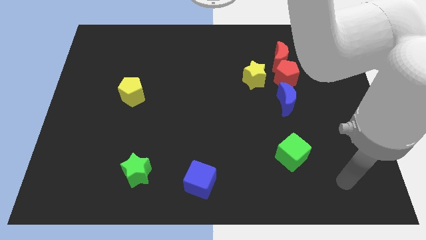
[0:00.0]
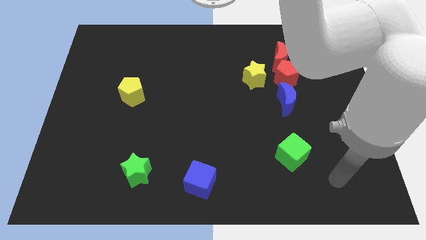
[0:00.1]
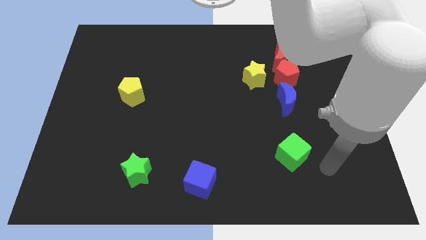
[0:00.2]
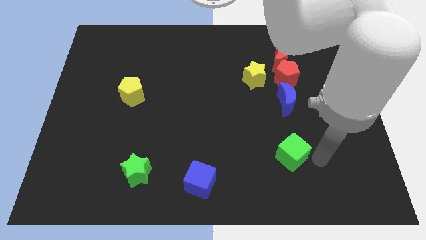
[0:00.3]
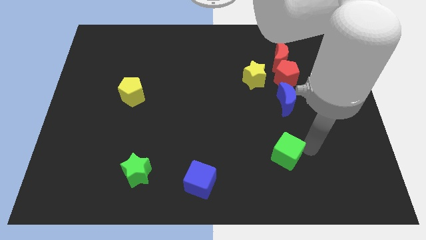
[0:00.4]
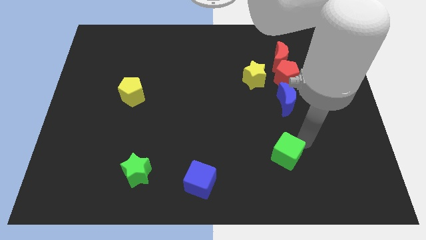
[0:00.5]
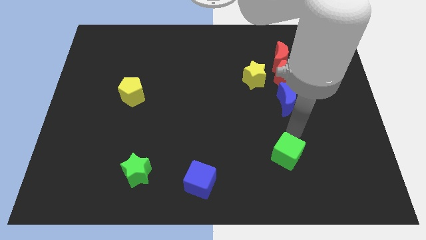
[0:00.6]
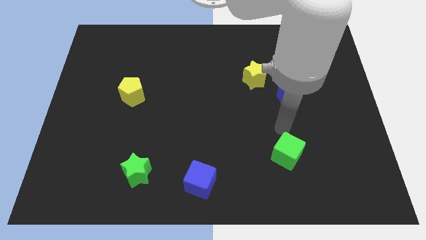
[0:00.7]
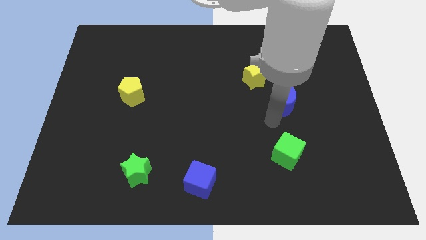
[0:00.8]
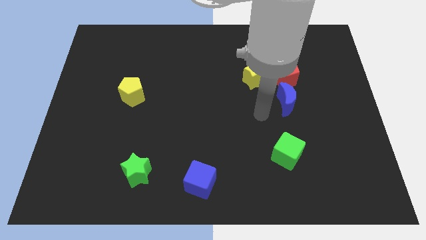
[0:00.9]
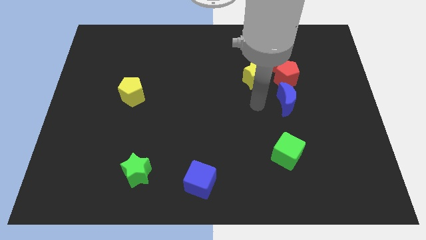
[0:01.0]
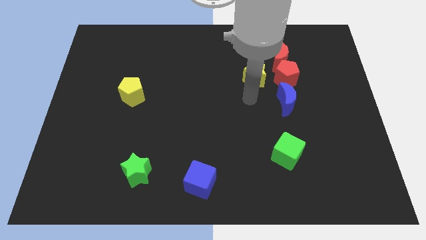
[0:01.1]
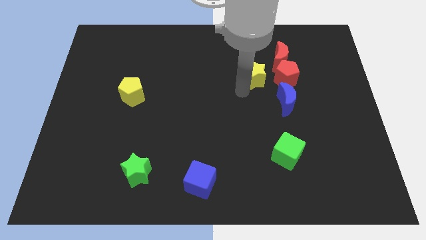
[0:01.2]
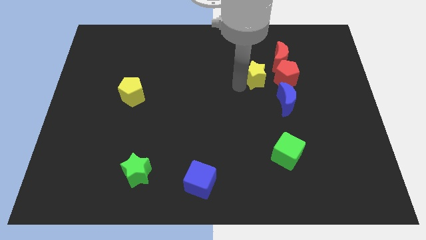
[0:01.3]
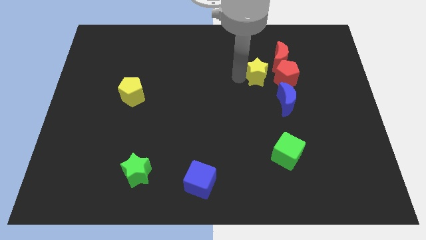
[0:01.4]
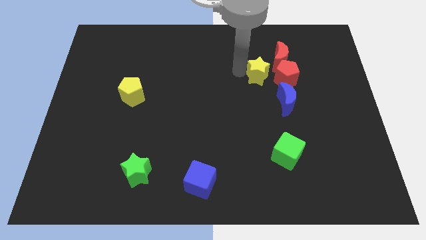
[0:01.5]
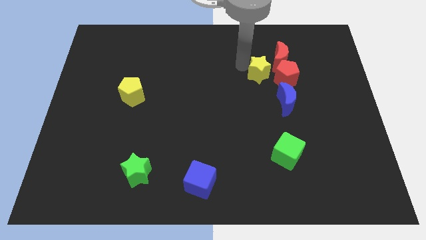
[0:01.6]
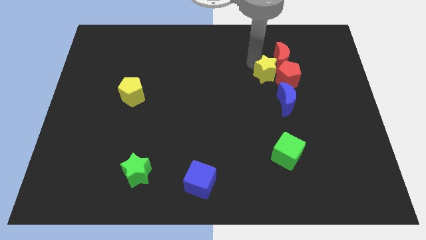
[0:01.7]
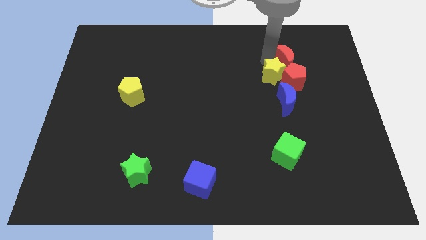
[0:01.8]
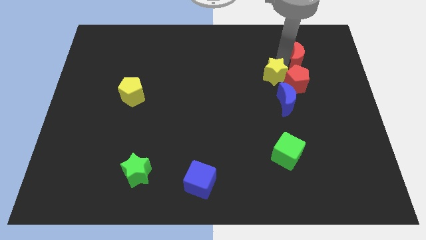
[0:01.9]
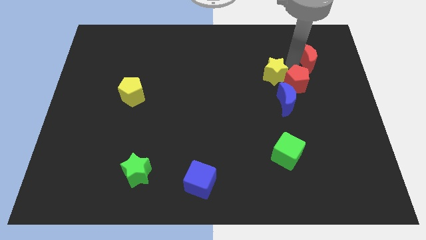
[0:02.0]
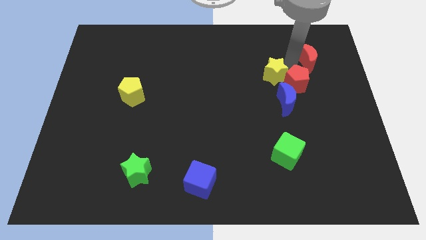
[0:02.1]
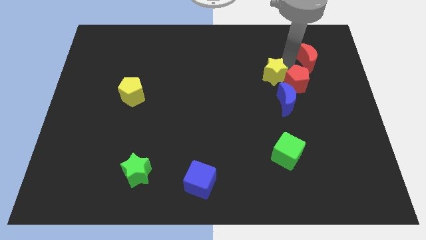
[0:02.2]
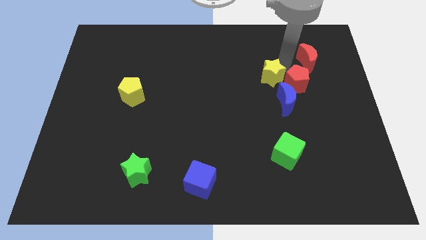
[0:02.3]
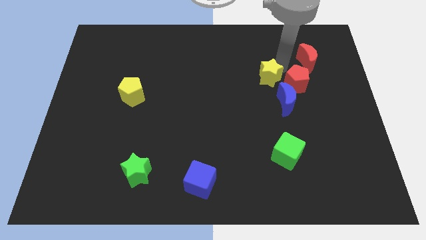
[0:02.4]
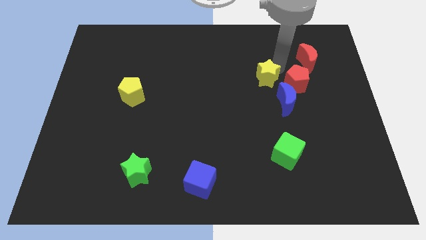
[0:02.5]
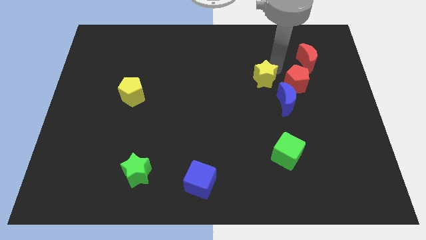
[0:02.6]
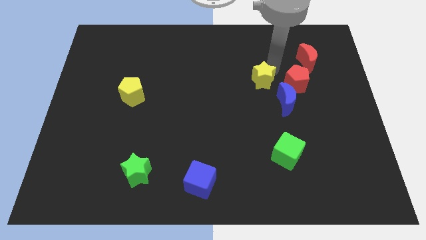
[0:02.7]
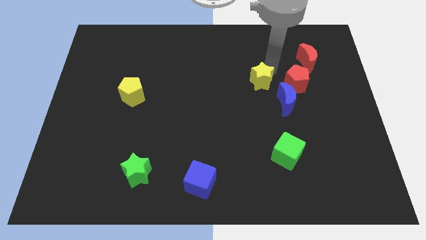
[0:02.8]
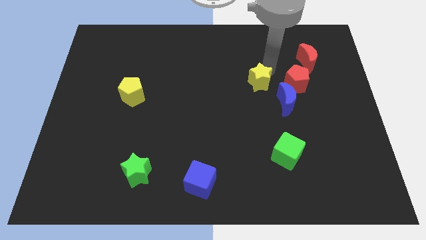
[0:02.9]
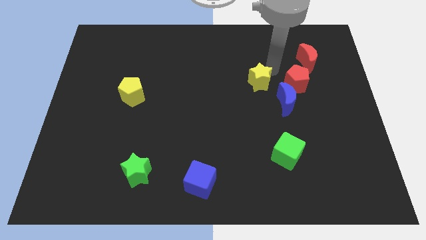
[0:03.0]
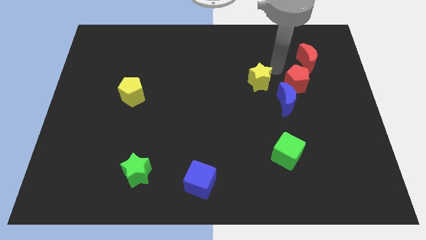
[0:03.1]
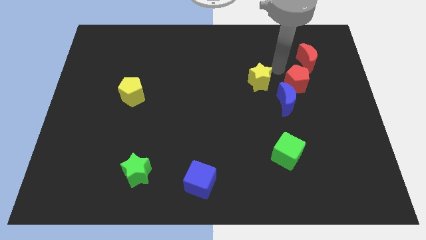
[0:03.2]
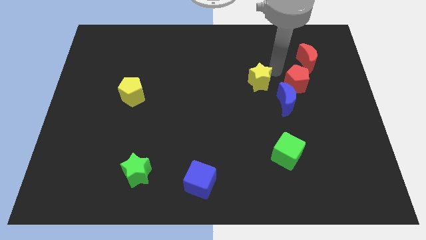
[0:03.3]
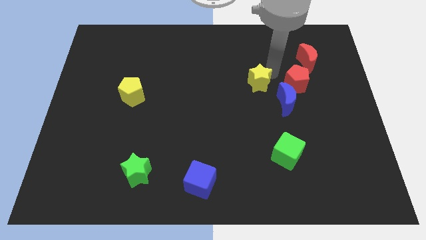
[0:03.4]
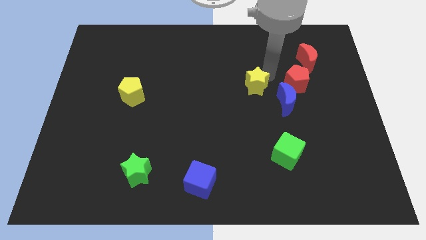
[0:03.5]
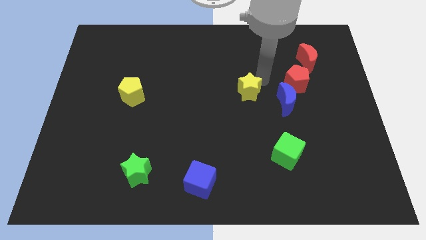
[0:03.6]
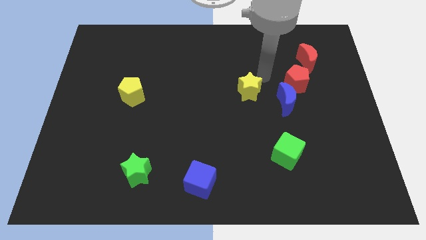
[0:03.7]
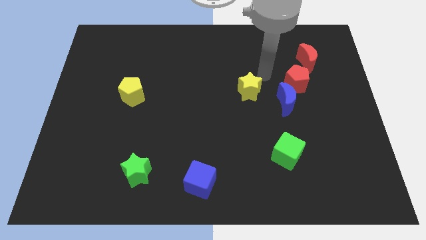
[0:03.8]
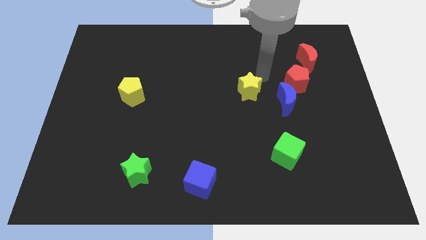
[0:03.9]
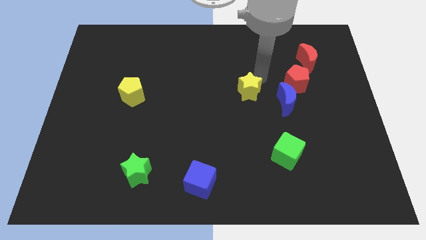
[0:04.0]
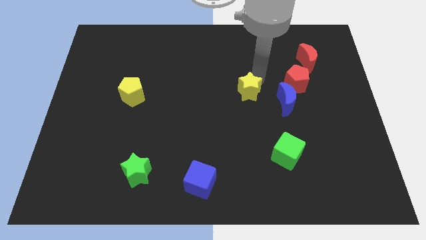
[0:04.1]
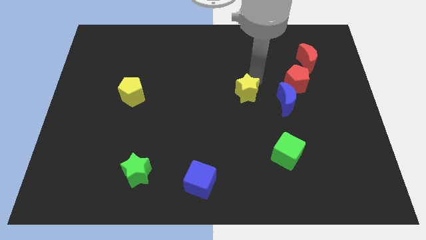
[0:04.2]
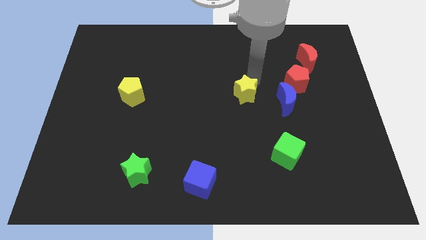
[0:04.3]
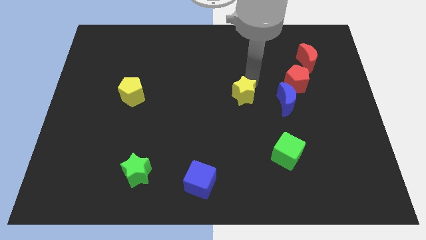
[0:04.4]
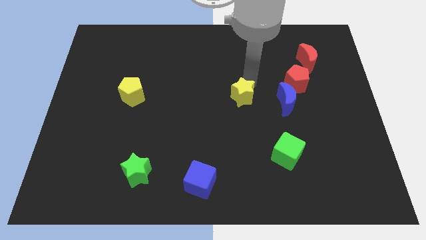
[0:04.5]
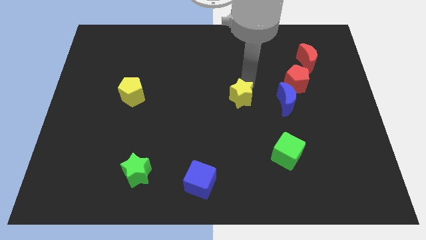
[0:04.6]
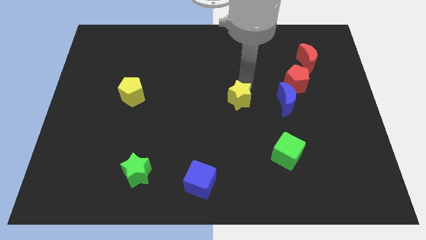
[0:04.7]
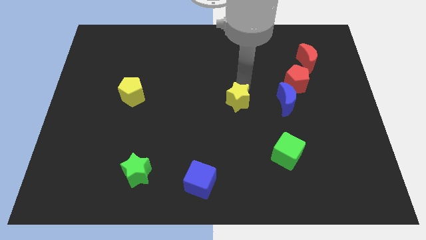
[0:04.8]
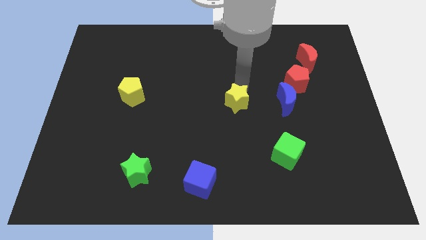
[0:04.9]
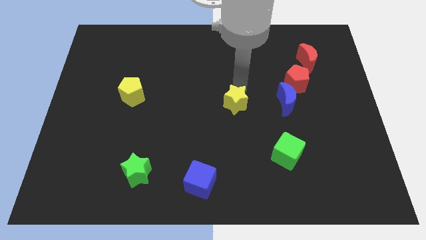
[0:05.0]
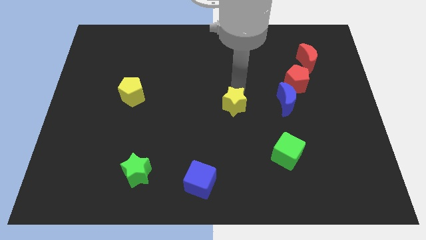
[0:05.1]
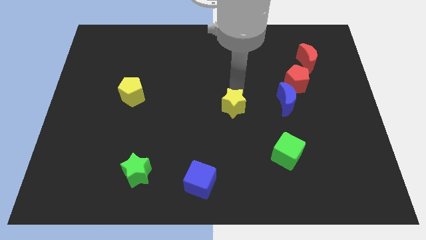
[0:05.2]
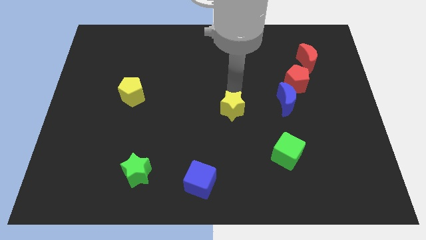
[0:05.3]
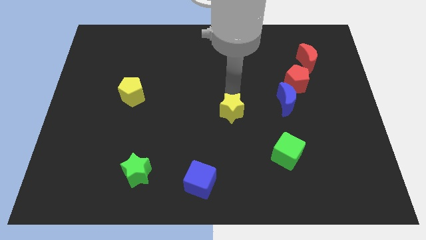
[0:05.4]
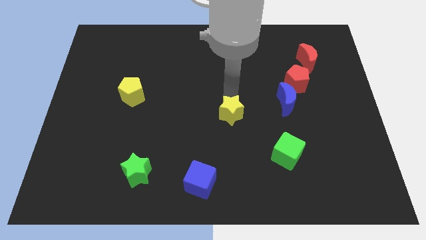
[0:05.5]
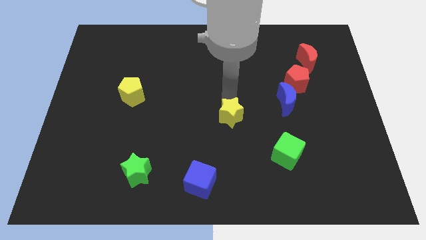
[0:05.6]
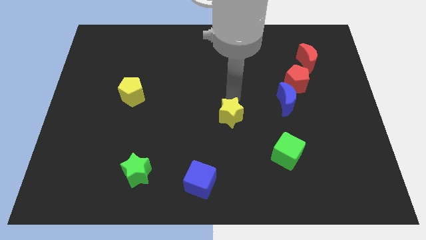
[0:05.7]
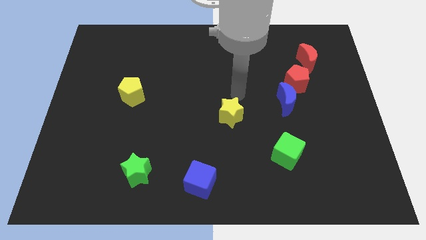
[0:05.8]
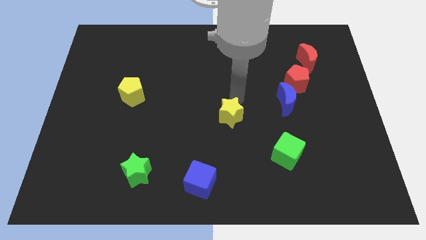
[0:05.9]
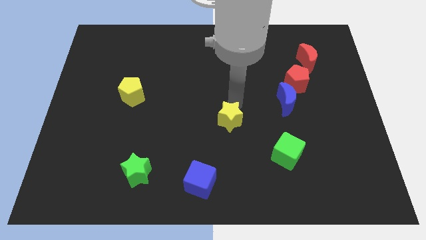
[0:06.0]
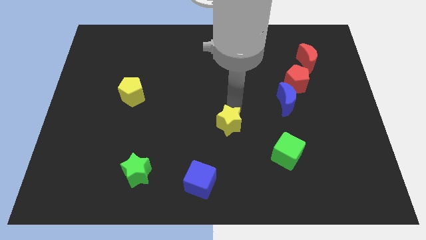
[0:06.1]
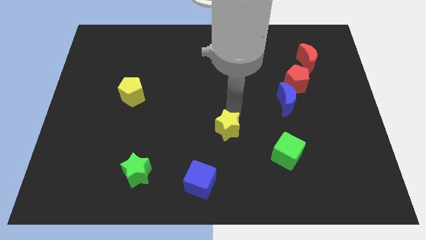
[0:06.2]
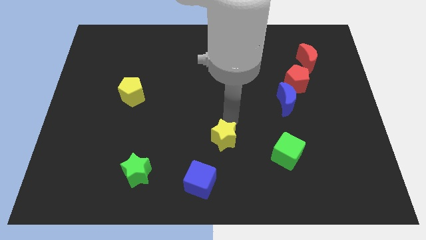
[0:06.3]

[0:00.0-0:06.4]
push the yellow star to the top right side of the blue cube
